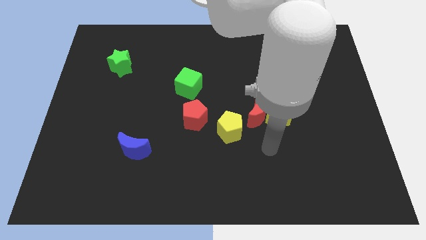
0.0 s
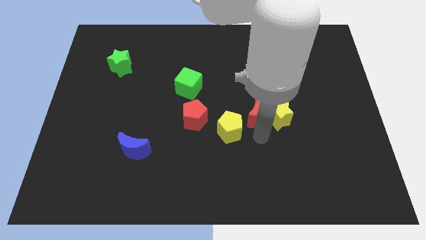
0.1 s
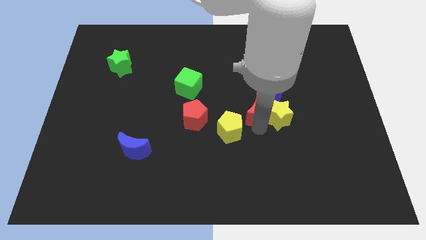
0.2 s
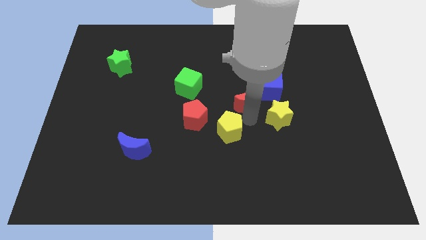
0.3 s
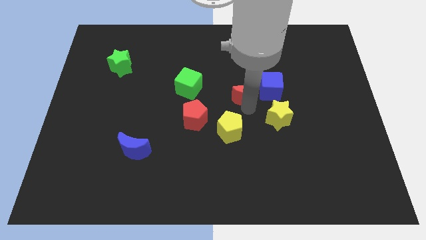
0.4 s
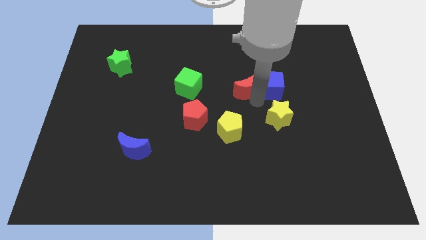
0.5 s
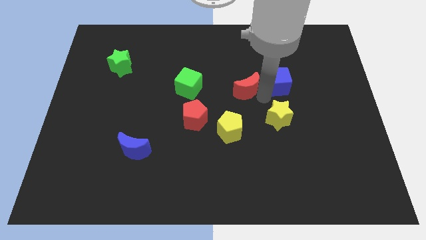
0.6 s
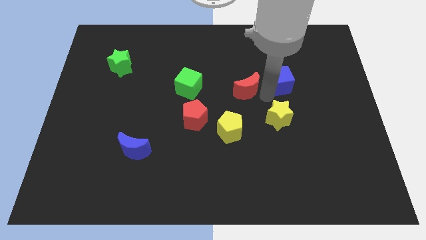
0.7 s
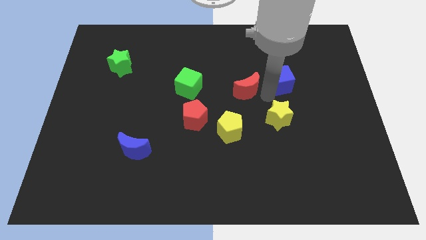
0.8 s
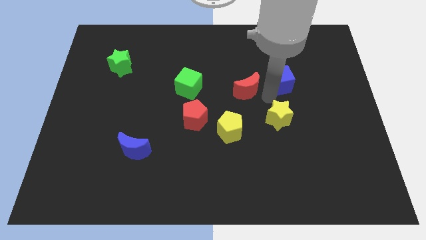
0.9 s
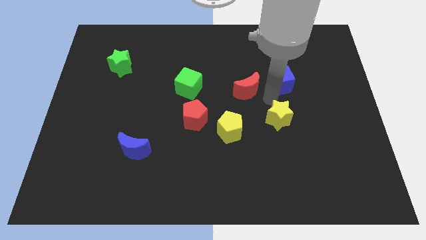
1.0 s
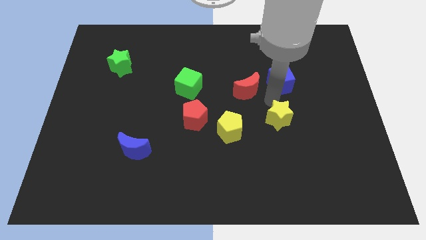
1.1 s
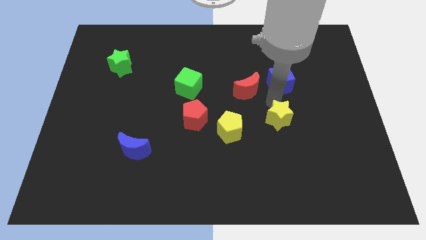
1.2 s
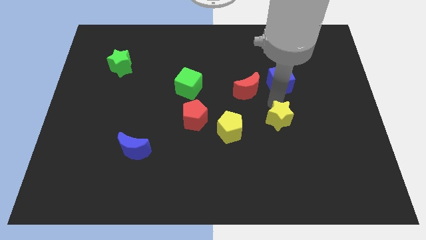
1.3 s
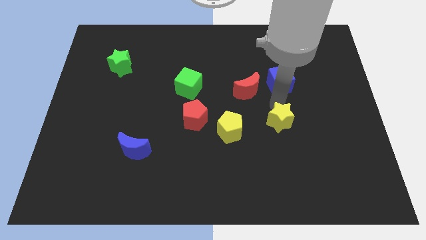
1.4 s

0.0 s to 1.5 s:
pull the yellow star apart from the red moon and blue cube

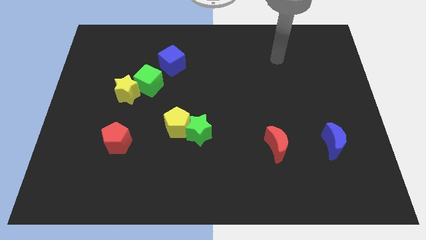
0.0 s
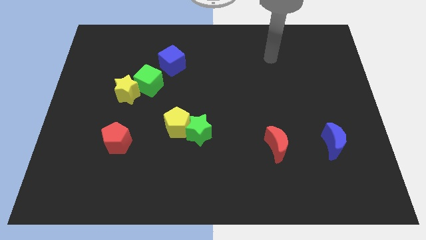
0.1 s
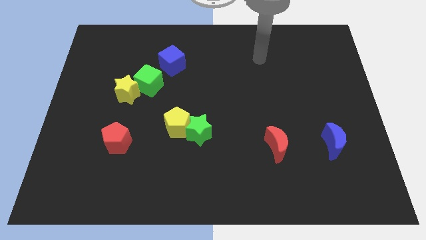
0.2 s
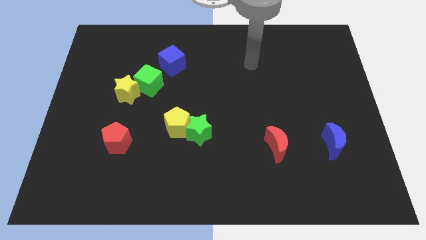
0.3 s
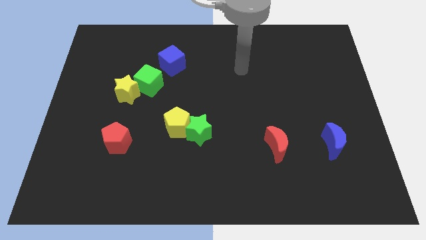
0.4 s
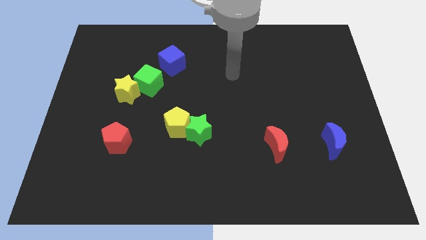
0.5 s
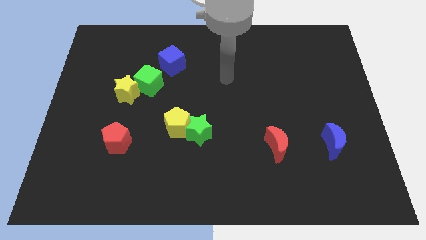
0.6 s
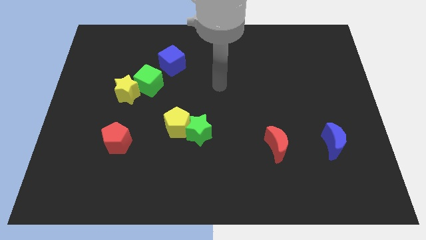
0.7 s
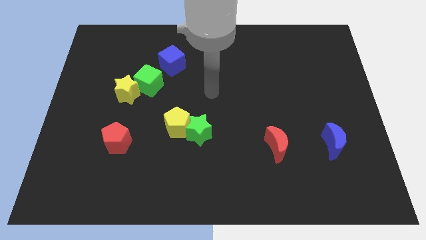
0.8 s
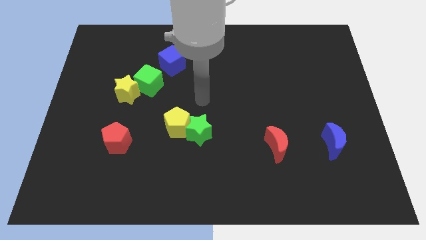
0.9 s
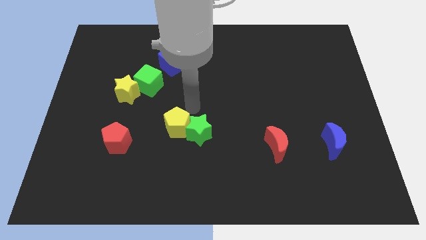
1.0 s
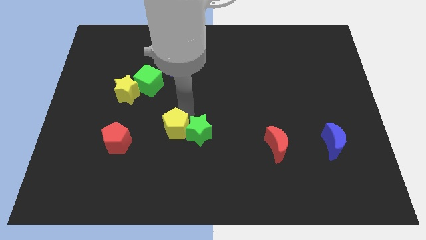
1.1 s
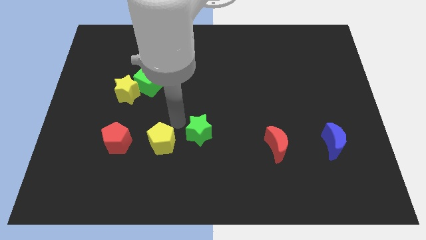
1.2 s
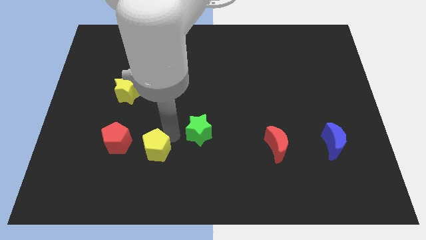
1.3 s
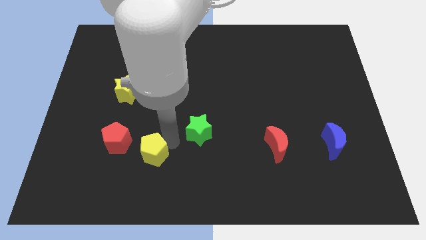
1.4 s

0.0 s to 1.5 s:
separate the green star from the yellow pentagon

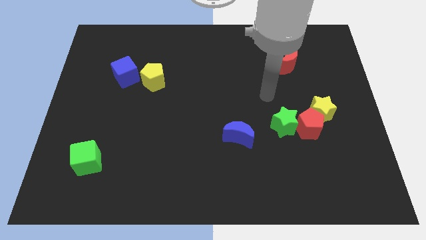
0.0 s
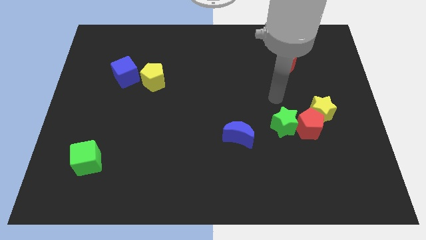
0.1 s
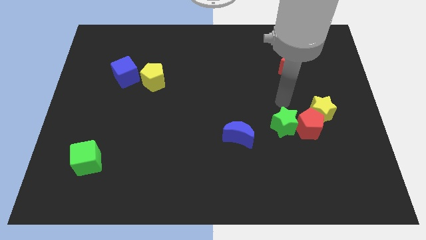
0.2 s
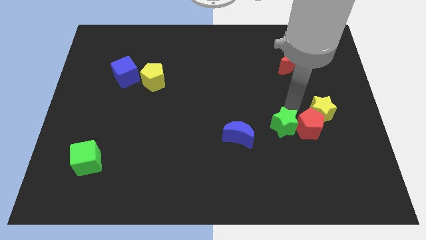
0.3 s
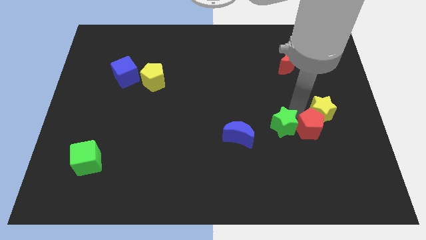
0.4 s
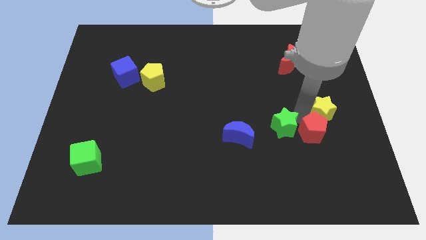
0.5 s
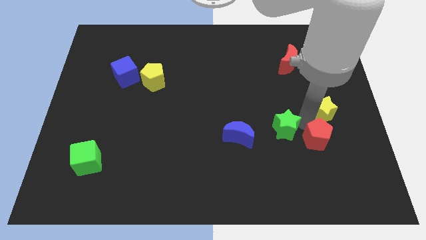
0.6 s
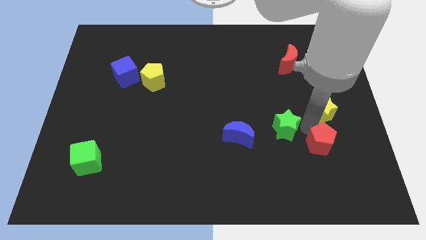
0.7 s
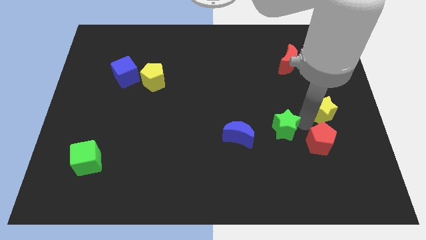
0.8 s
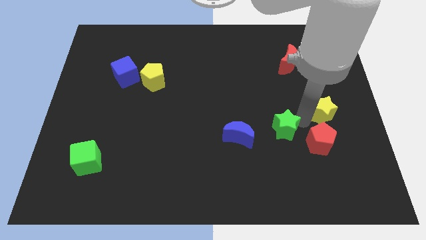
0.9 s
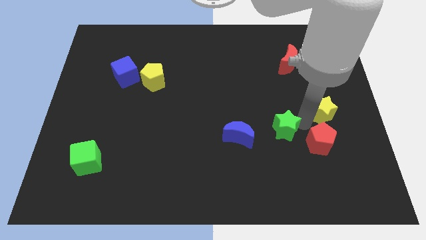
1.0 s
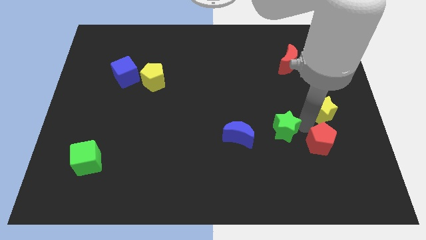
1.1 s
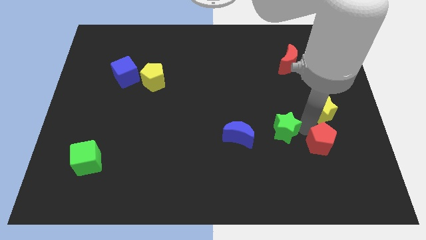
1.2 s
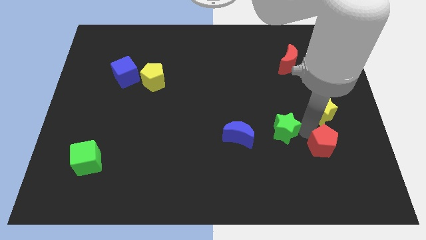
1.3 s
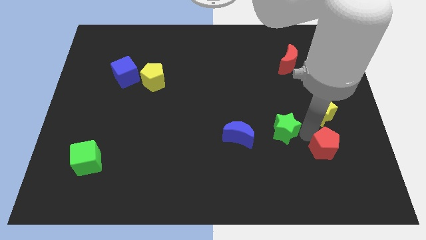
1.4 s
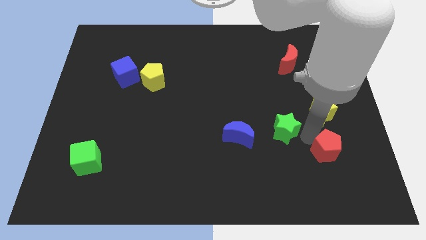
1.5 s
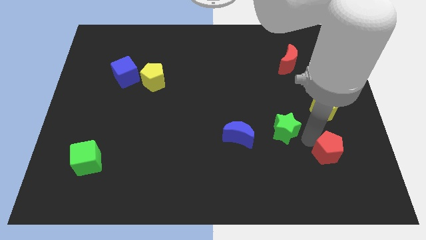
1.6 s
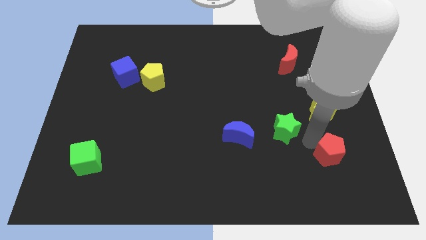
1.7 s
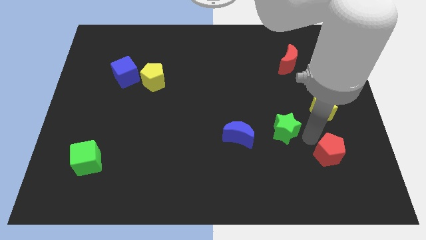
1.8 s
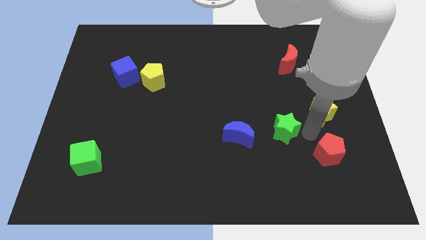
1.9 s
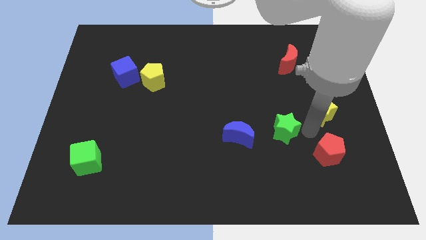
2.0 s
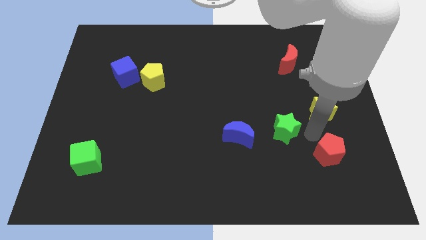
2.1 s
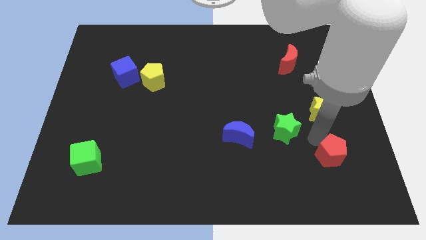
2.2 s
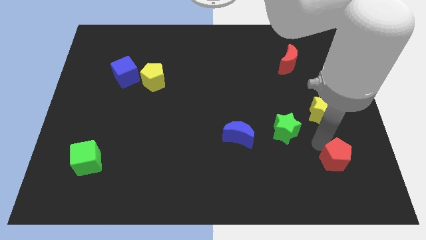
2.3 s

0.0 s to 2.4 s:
pull the red pentagon apart from the yellow star and green star

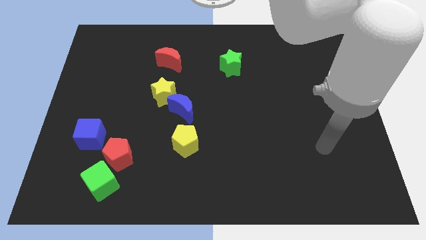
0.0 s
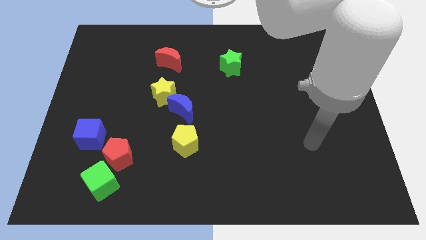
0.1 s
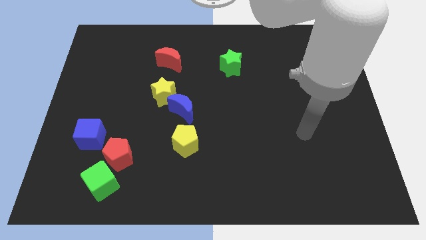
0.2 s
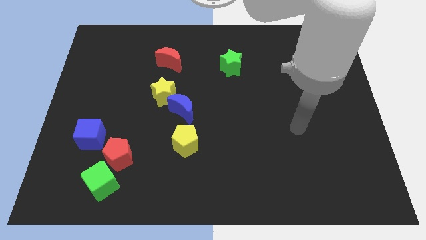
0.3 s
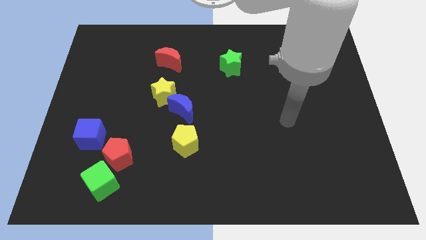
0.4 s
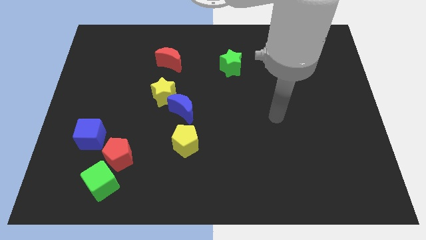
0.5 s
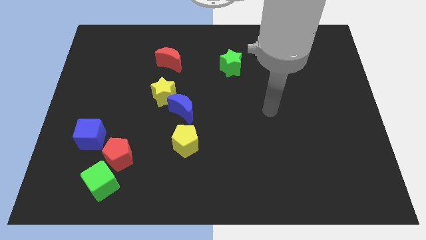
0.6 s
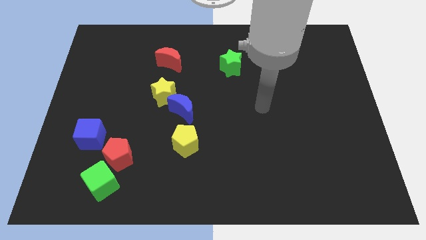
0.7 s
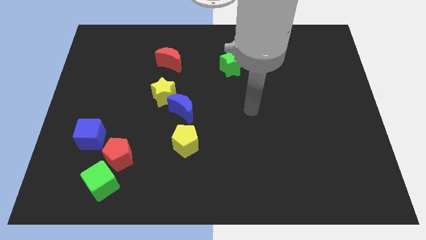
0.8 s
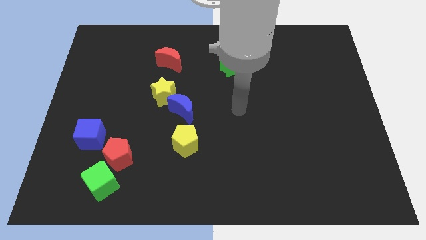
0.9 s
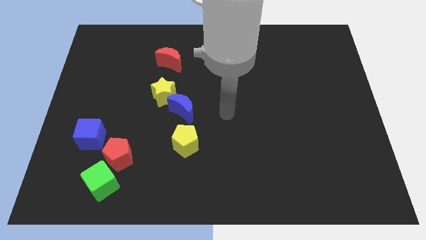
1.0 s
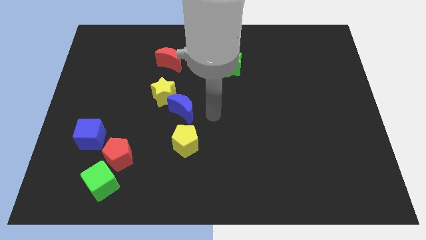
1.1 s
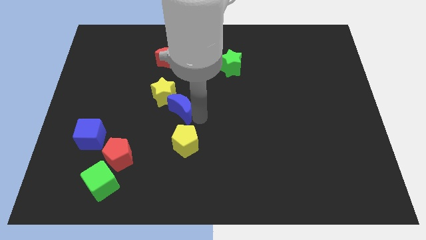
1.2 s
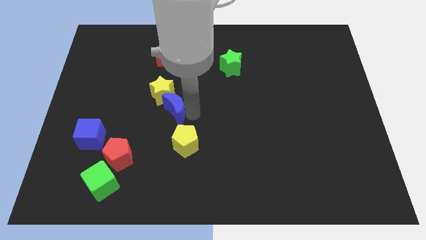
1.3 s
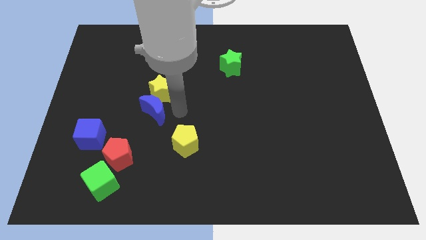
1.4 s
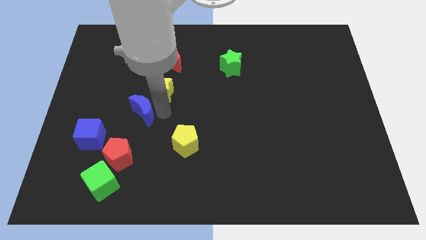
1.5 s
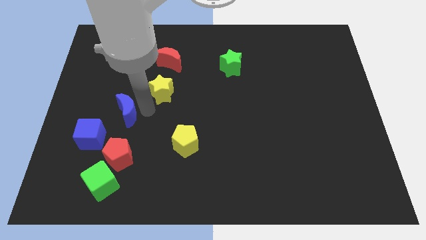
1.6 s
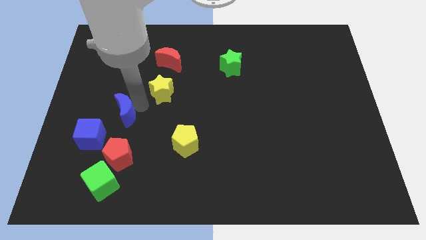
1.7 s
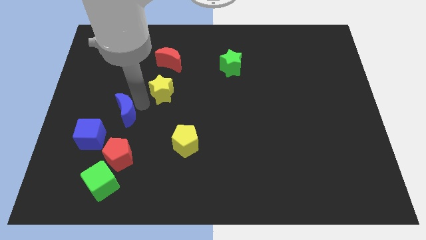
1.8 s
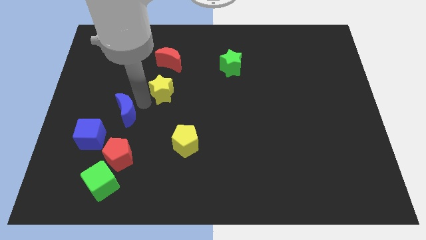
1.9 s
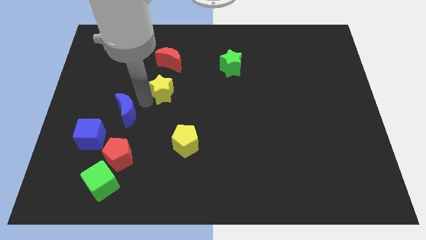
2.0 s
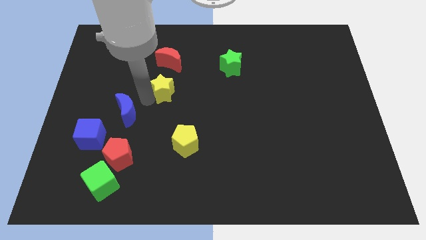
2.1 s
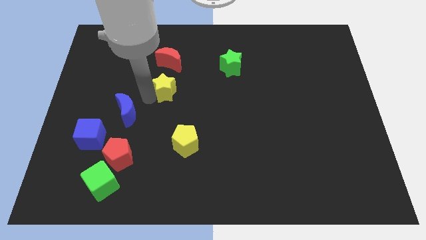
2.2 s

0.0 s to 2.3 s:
move the yellow star away from the blue moon

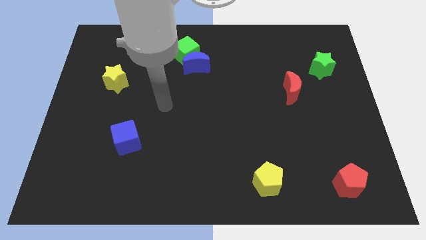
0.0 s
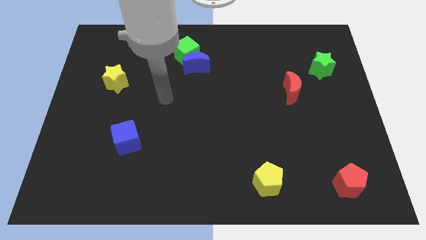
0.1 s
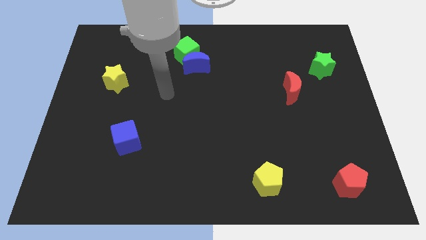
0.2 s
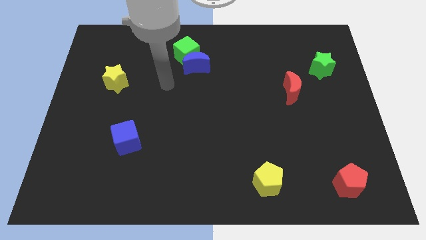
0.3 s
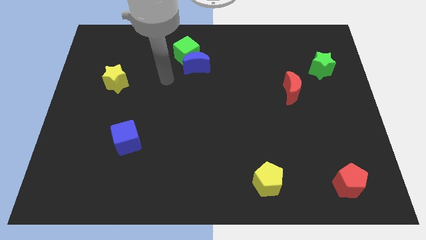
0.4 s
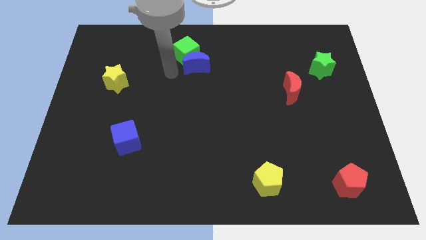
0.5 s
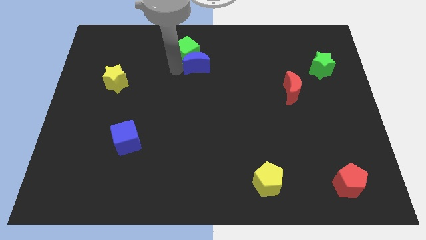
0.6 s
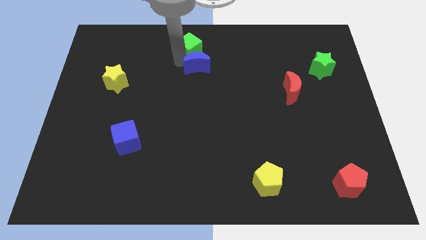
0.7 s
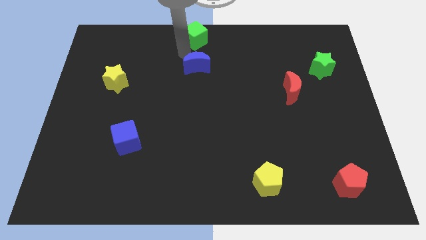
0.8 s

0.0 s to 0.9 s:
pull the blue moon apart from the green cube

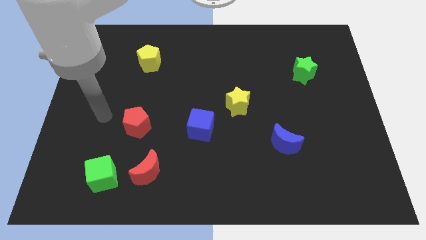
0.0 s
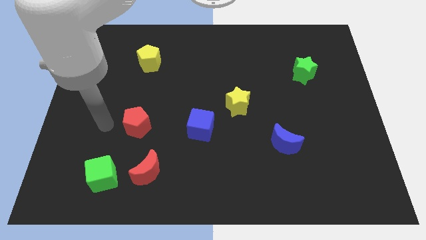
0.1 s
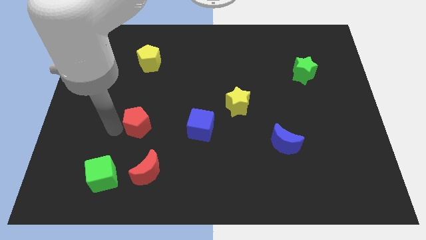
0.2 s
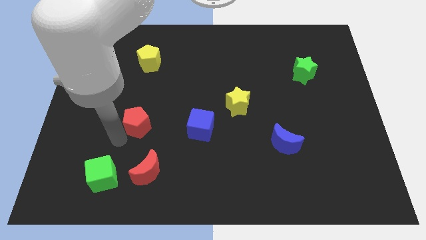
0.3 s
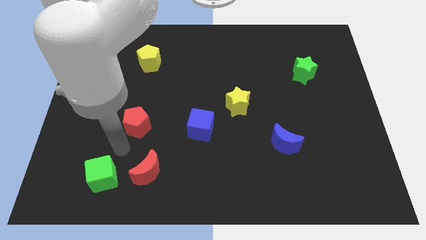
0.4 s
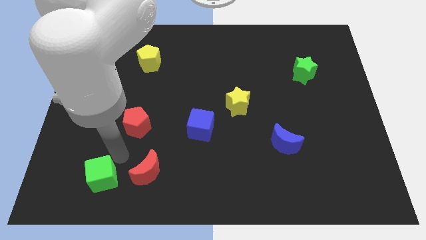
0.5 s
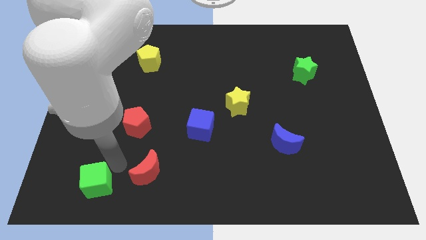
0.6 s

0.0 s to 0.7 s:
separate the red moon from the green cube
